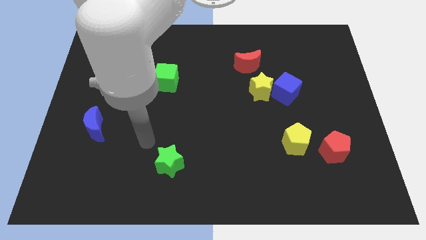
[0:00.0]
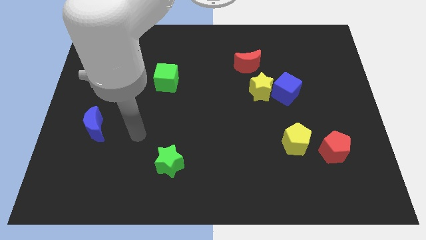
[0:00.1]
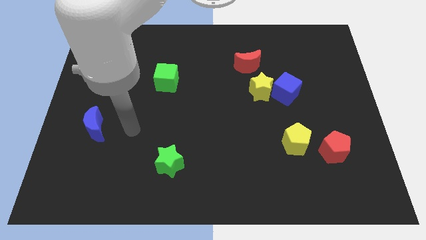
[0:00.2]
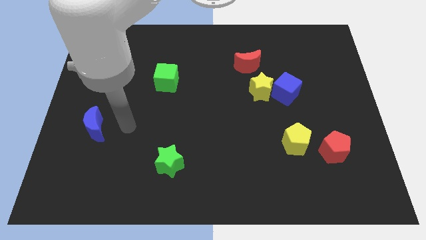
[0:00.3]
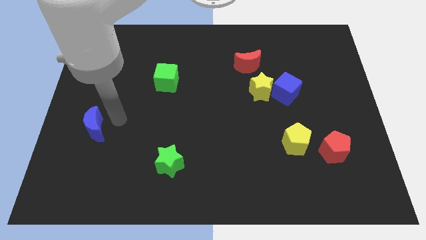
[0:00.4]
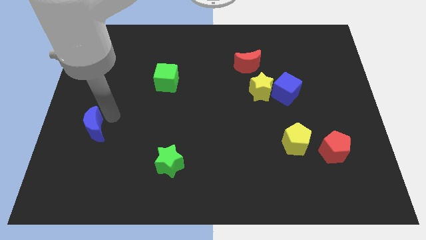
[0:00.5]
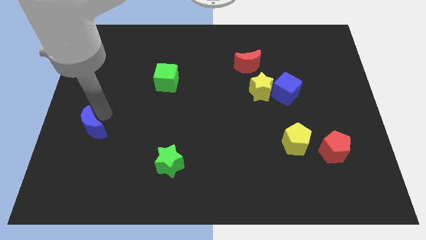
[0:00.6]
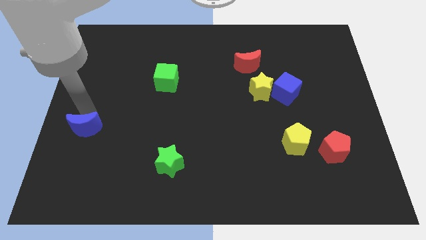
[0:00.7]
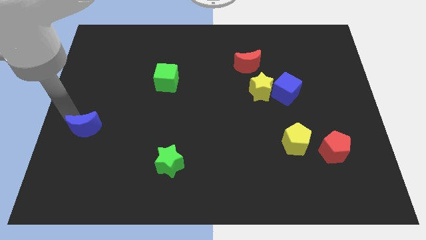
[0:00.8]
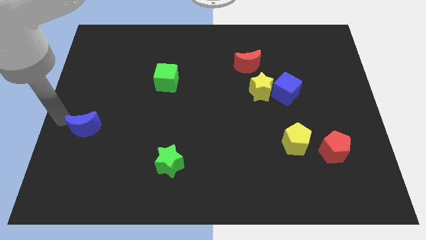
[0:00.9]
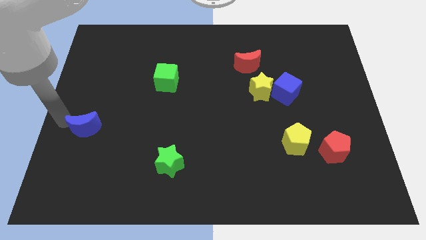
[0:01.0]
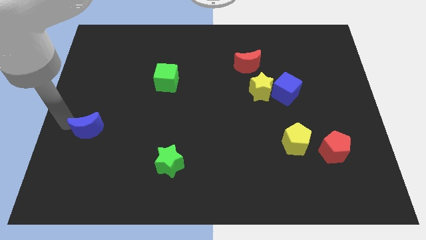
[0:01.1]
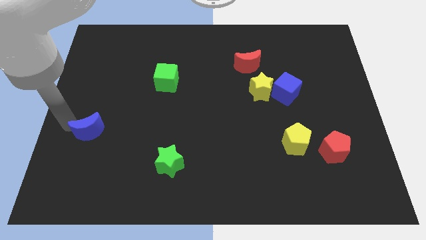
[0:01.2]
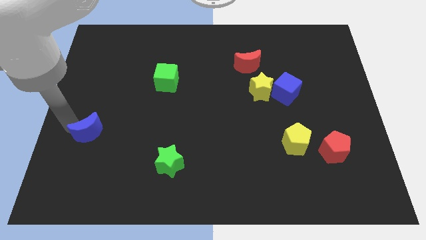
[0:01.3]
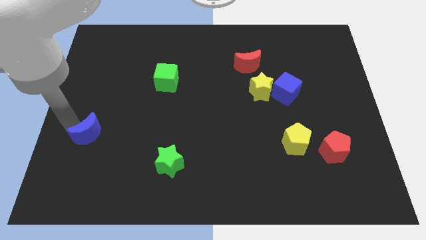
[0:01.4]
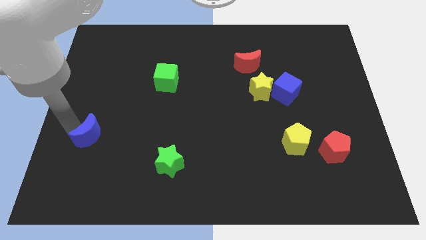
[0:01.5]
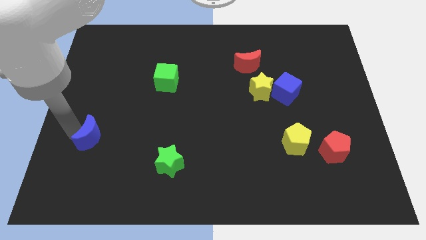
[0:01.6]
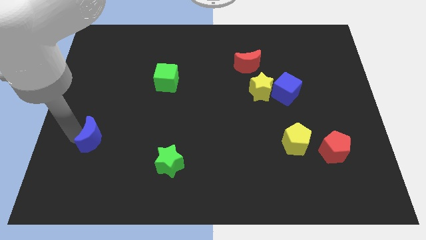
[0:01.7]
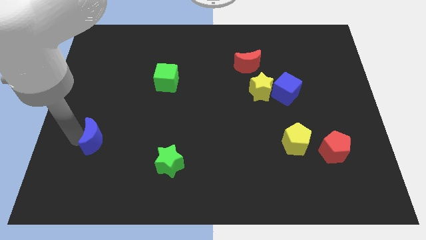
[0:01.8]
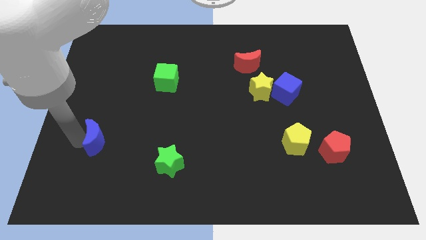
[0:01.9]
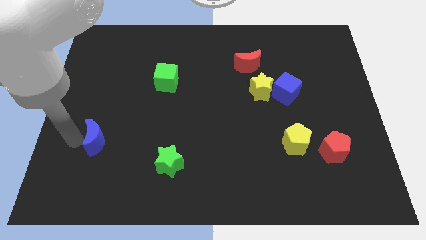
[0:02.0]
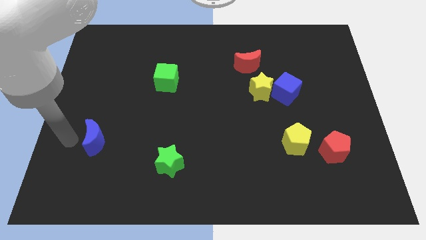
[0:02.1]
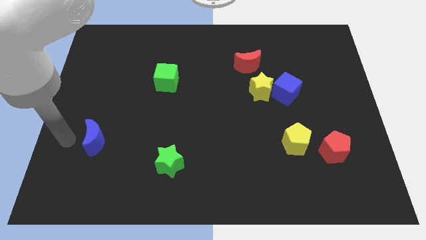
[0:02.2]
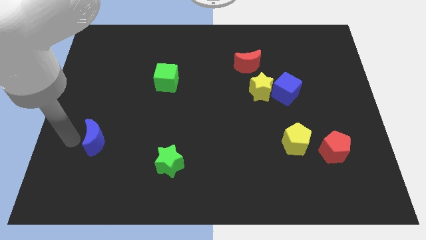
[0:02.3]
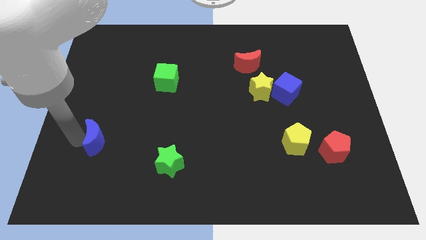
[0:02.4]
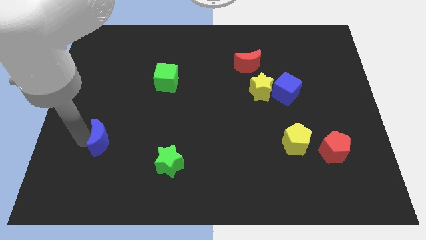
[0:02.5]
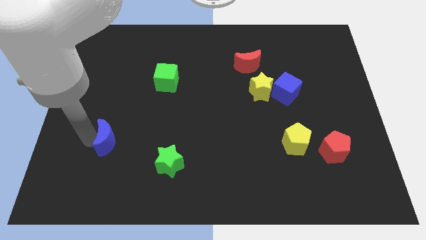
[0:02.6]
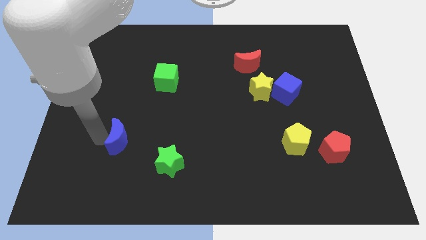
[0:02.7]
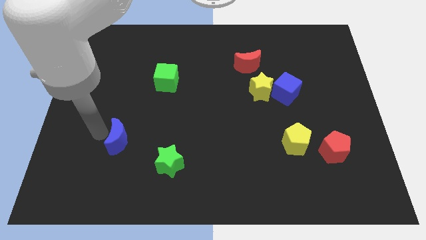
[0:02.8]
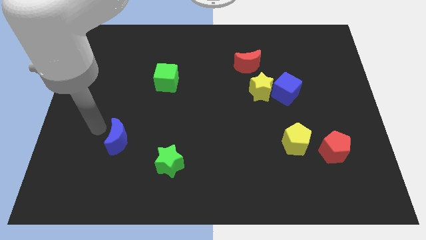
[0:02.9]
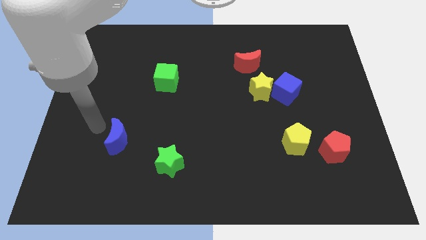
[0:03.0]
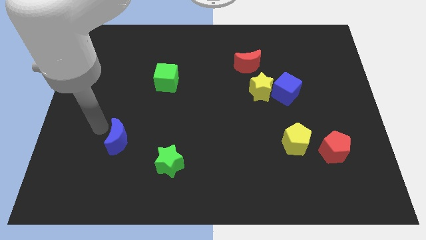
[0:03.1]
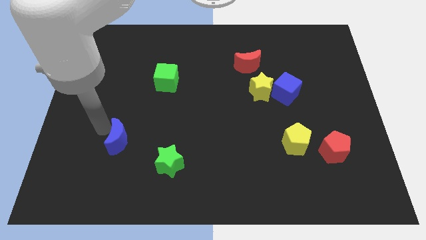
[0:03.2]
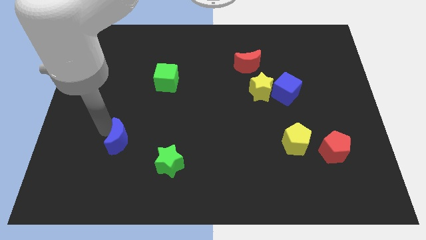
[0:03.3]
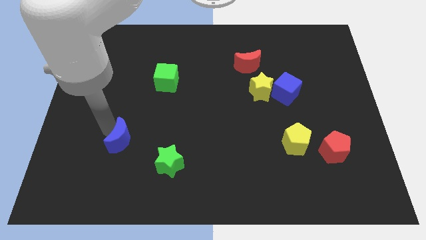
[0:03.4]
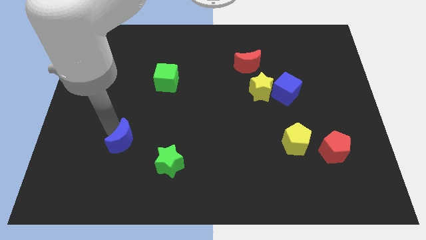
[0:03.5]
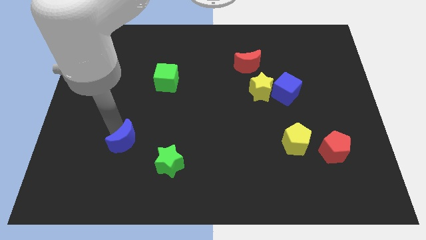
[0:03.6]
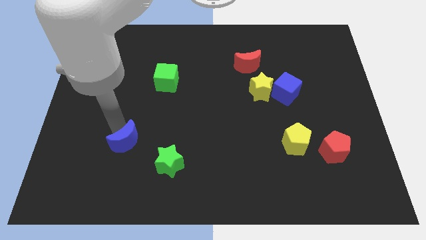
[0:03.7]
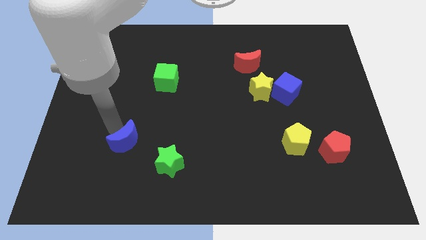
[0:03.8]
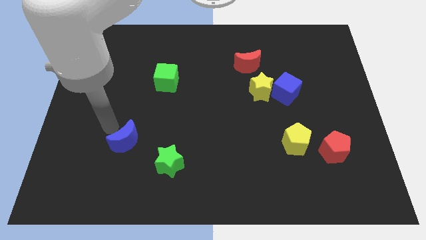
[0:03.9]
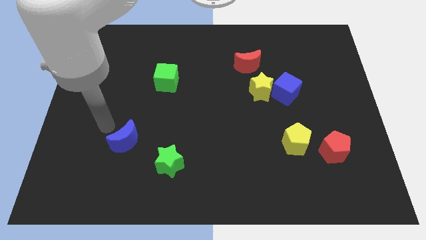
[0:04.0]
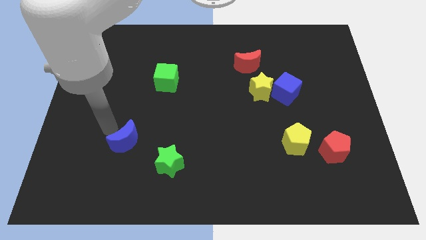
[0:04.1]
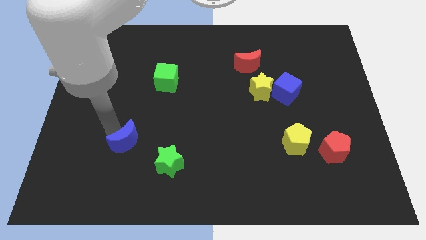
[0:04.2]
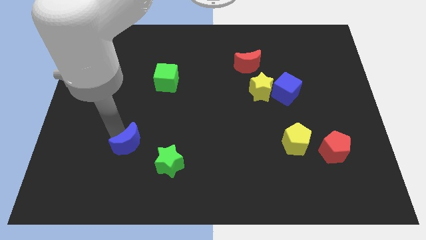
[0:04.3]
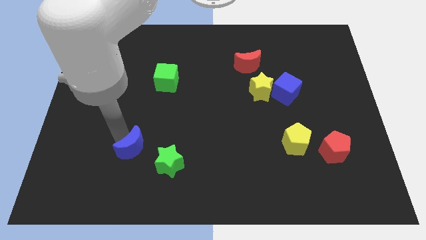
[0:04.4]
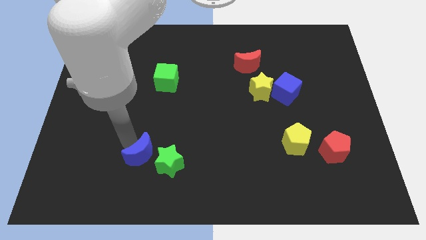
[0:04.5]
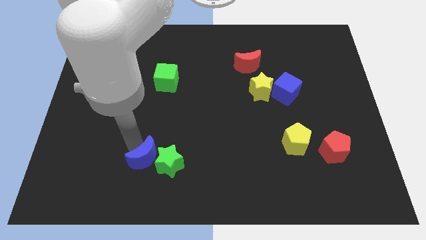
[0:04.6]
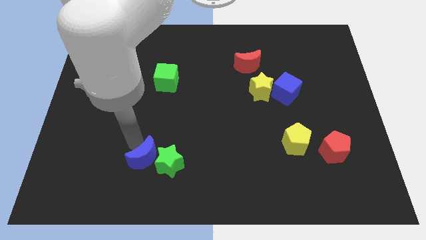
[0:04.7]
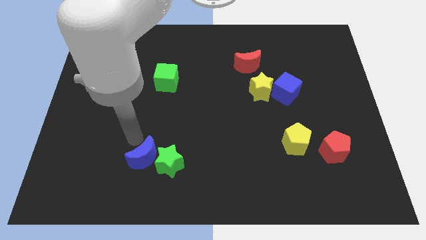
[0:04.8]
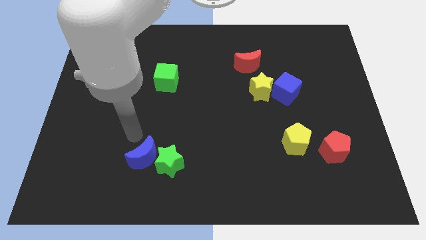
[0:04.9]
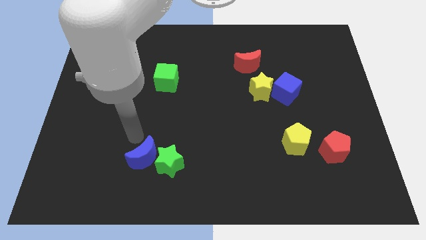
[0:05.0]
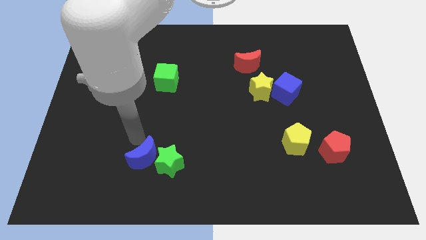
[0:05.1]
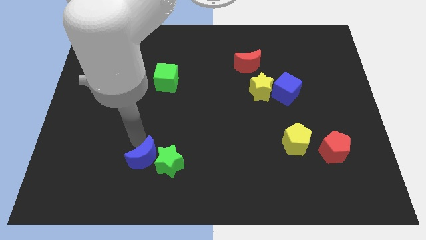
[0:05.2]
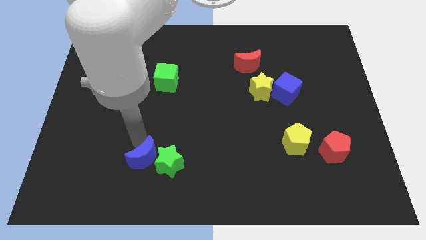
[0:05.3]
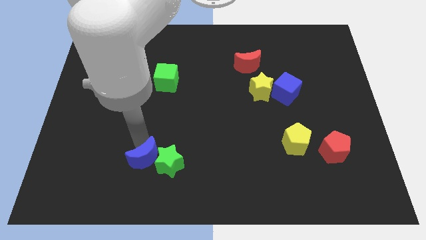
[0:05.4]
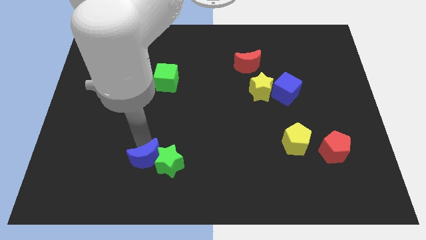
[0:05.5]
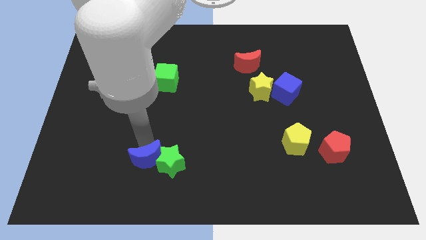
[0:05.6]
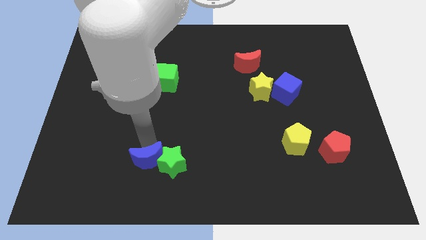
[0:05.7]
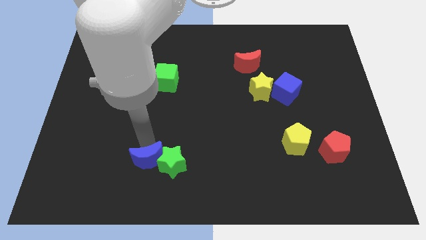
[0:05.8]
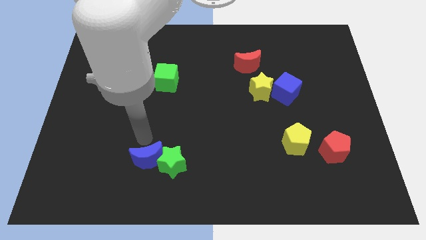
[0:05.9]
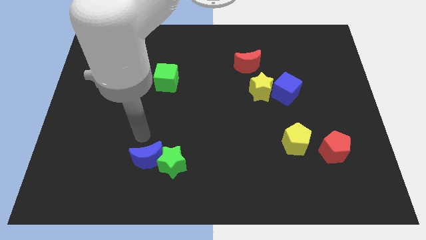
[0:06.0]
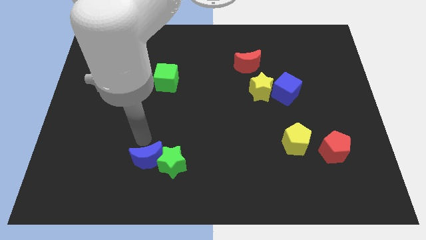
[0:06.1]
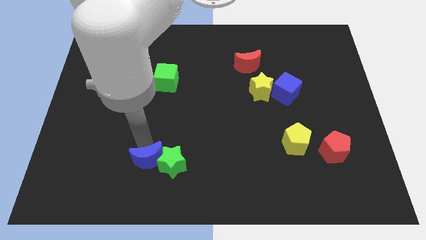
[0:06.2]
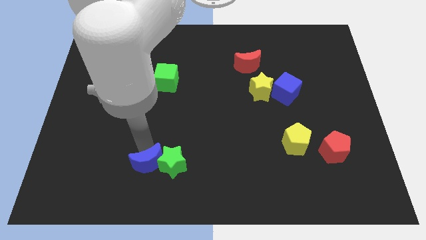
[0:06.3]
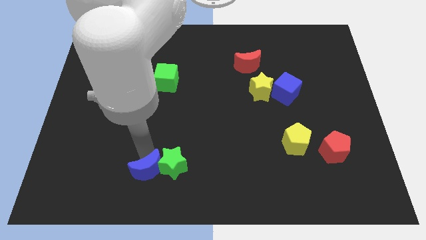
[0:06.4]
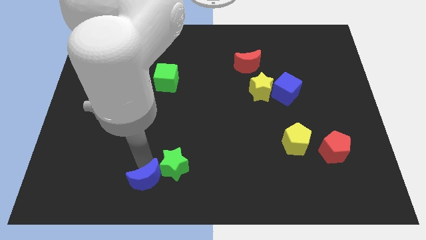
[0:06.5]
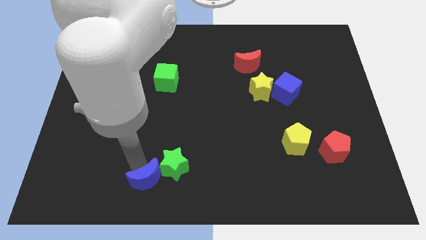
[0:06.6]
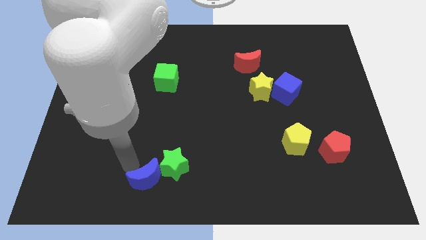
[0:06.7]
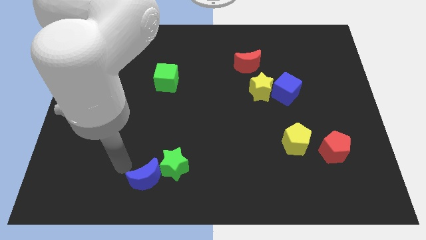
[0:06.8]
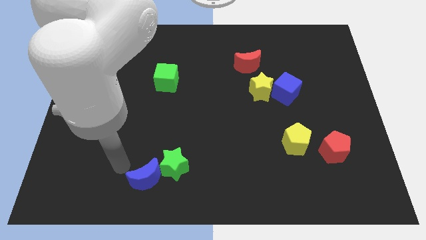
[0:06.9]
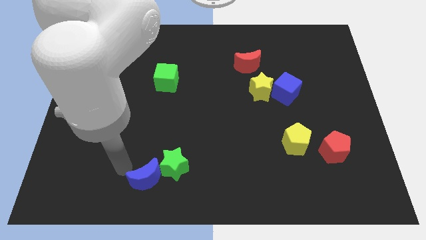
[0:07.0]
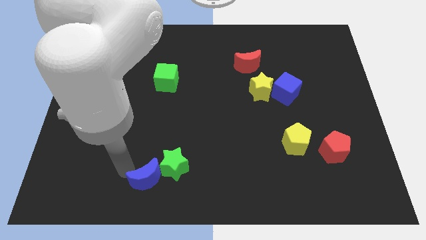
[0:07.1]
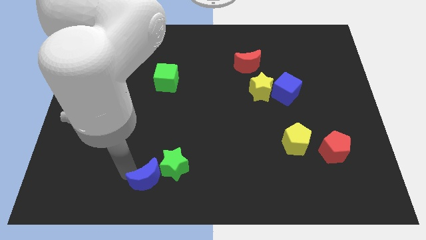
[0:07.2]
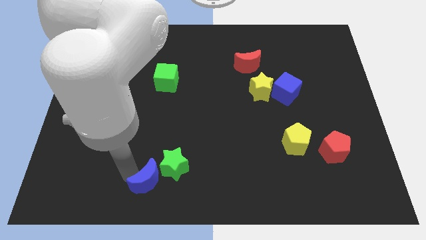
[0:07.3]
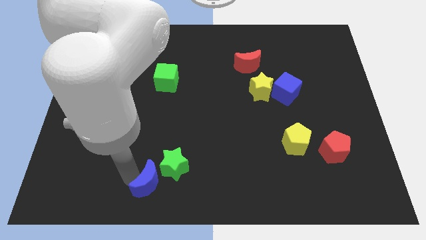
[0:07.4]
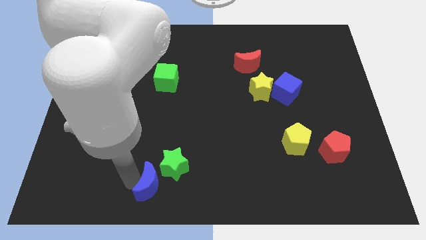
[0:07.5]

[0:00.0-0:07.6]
push the blue moon to the bottom
